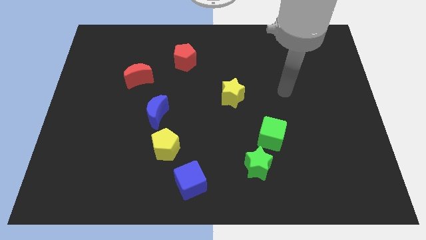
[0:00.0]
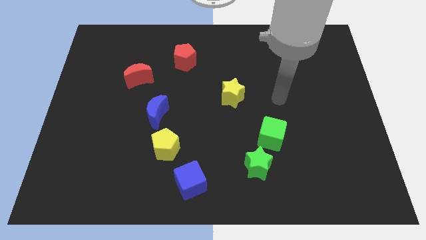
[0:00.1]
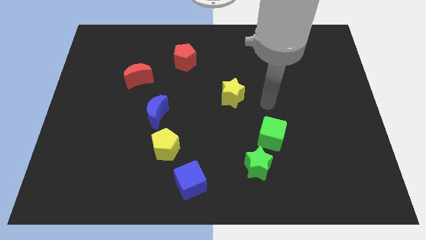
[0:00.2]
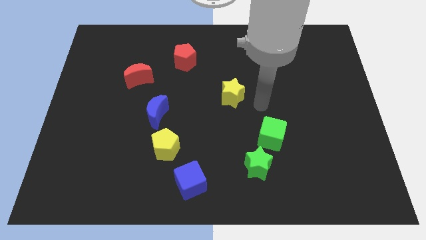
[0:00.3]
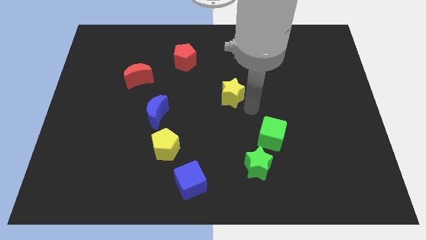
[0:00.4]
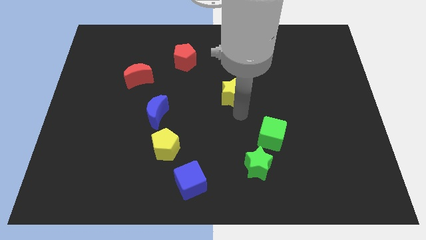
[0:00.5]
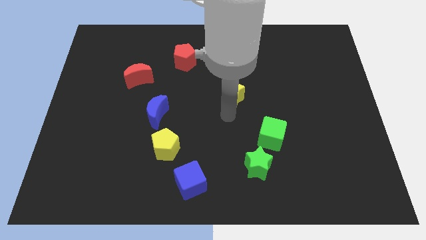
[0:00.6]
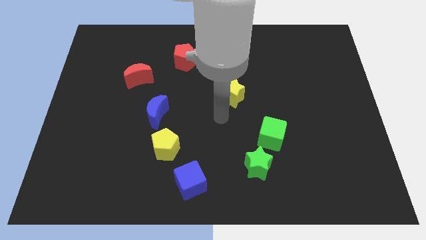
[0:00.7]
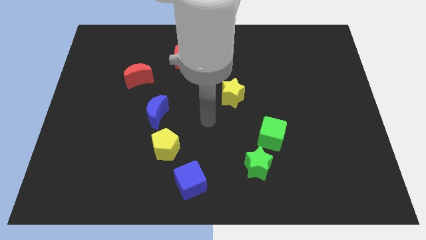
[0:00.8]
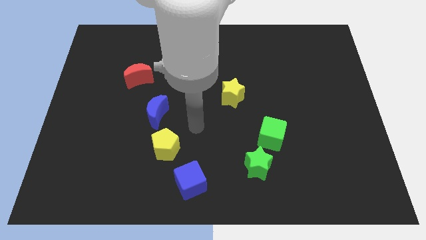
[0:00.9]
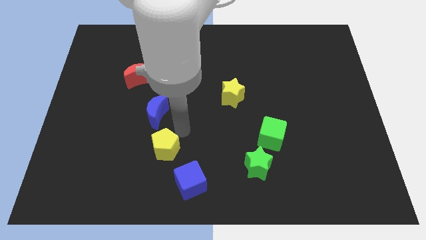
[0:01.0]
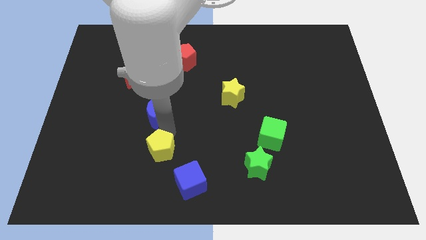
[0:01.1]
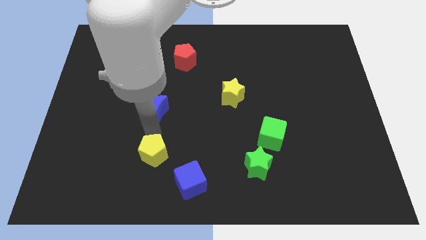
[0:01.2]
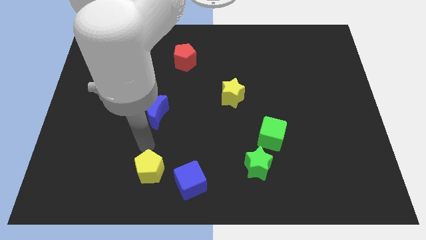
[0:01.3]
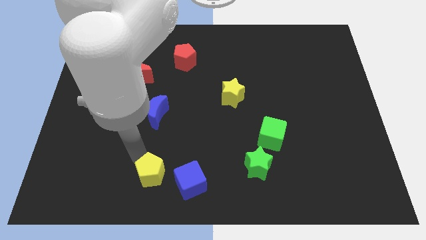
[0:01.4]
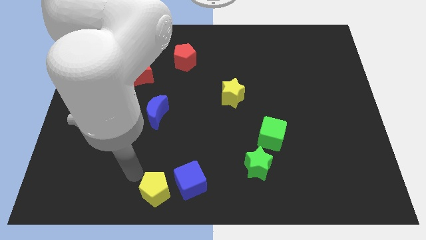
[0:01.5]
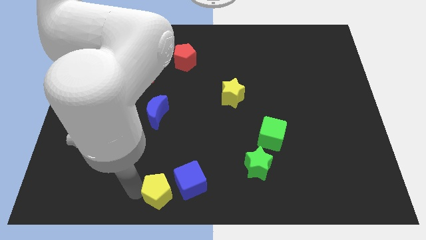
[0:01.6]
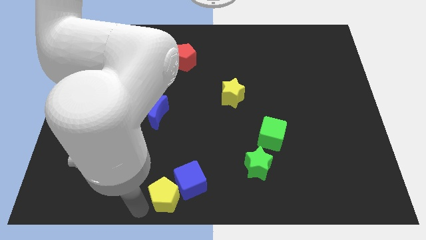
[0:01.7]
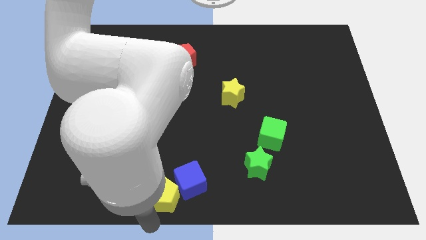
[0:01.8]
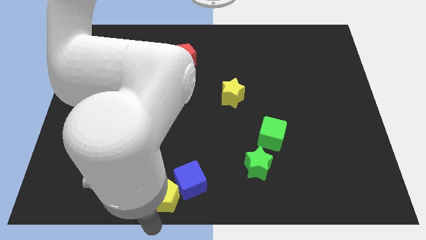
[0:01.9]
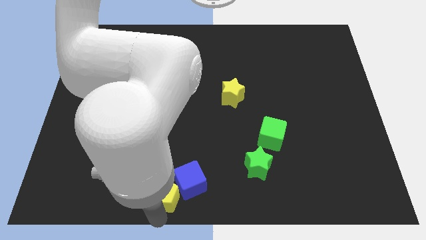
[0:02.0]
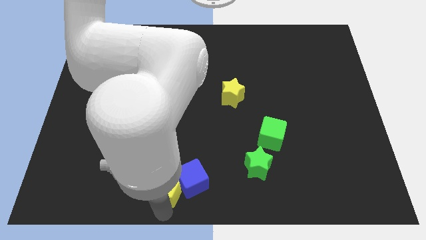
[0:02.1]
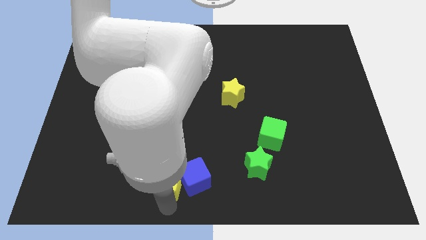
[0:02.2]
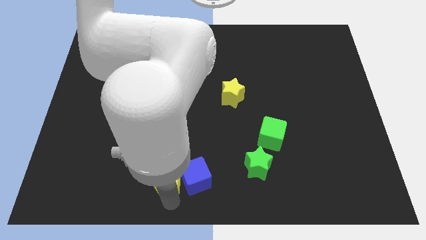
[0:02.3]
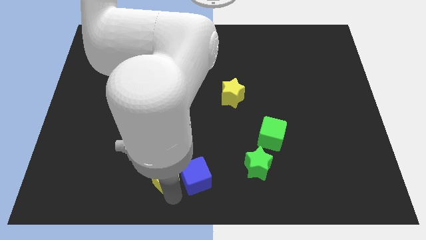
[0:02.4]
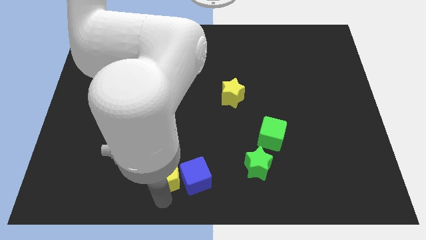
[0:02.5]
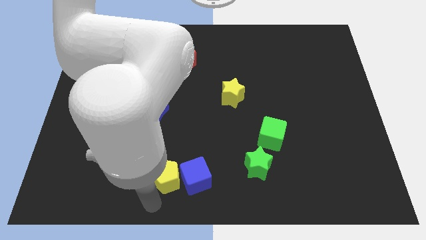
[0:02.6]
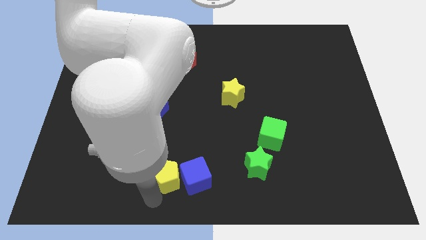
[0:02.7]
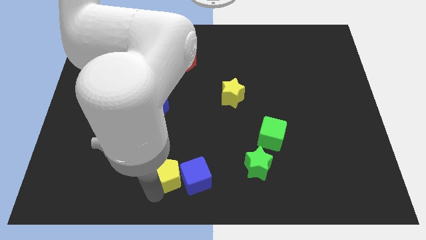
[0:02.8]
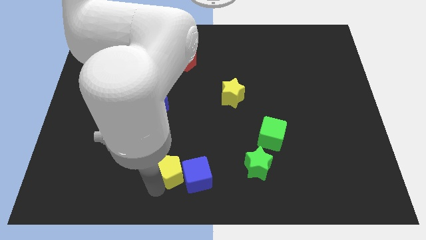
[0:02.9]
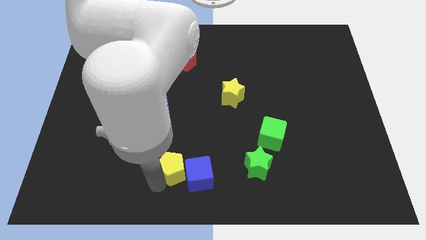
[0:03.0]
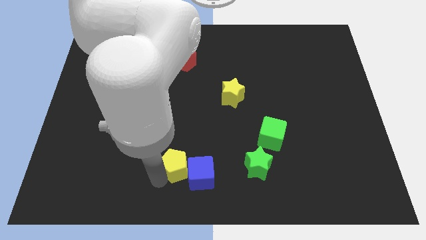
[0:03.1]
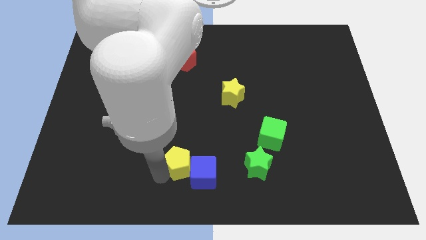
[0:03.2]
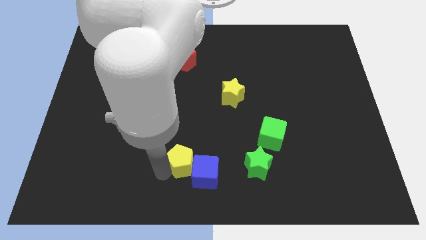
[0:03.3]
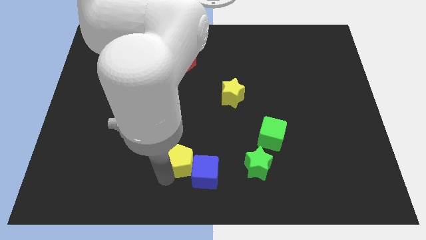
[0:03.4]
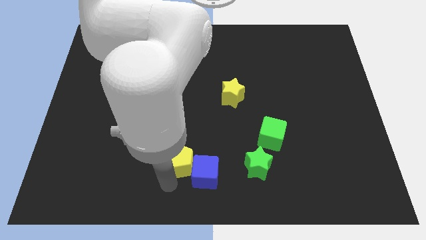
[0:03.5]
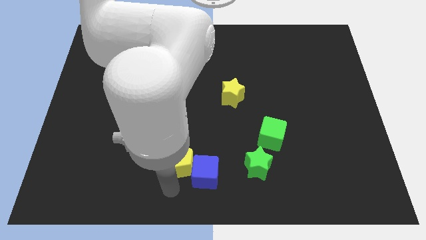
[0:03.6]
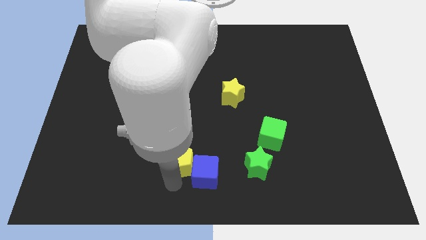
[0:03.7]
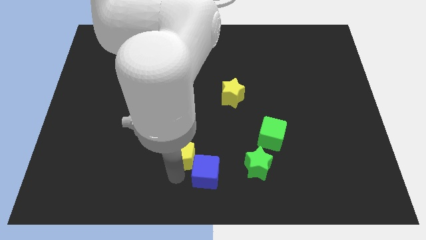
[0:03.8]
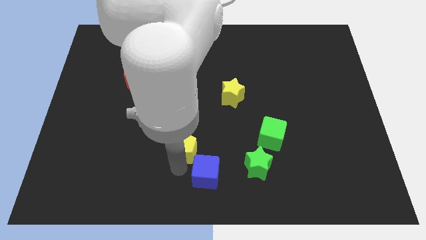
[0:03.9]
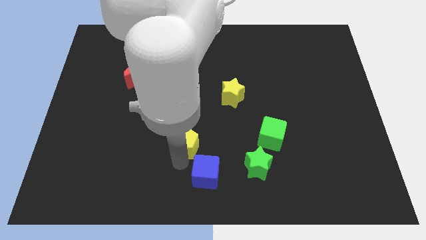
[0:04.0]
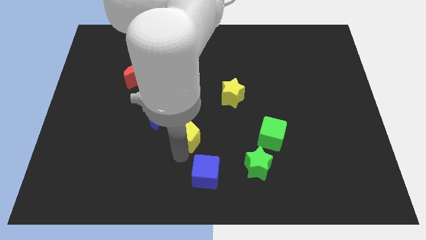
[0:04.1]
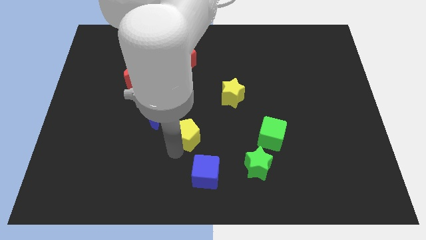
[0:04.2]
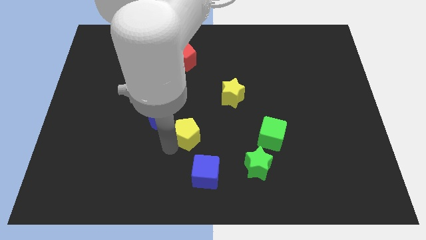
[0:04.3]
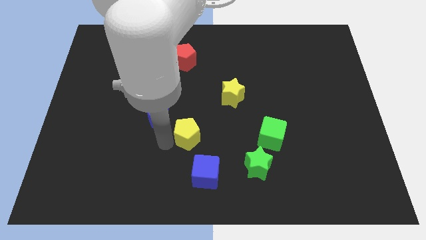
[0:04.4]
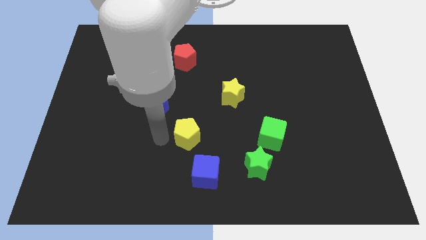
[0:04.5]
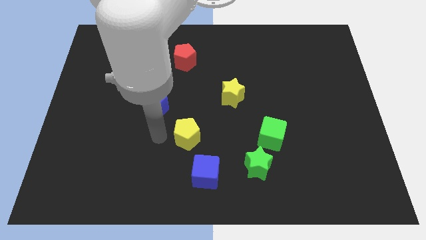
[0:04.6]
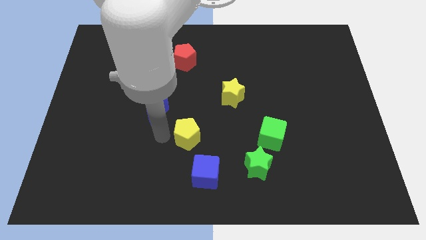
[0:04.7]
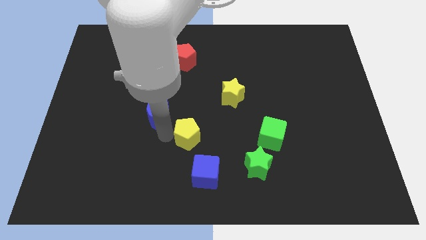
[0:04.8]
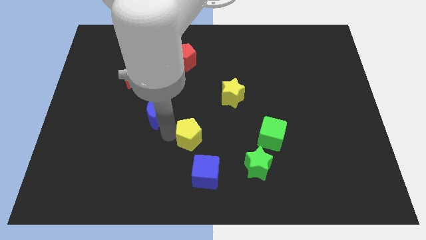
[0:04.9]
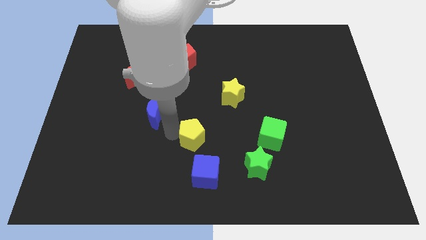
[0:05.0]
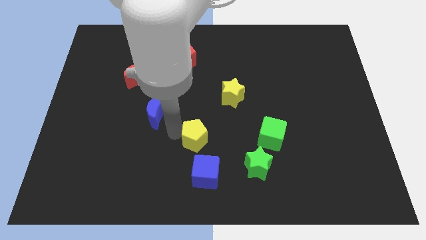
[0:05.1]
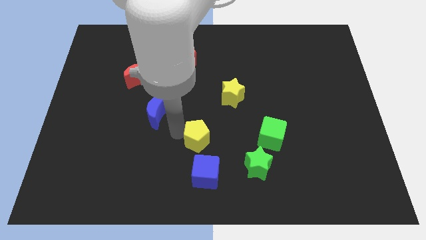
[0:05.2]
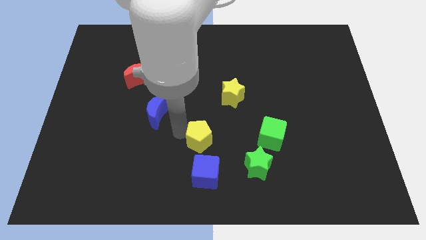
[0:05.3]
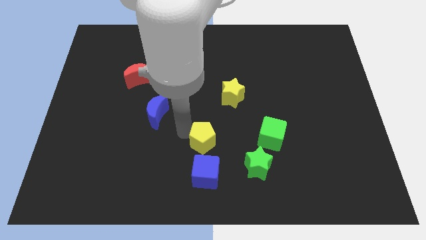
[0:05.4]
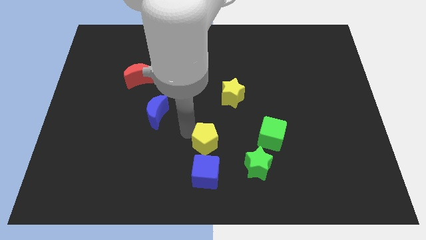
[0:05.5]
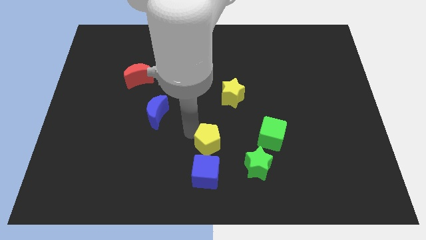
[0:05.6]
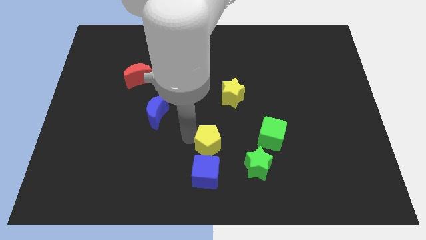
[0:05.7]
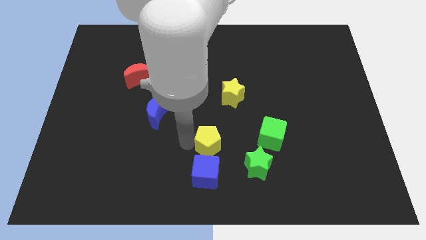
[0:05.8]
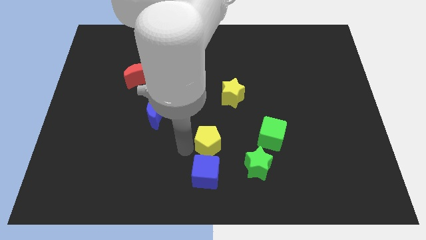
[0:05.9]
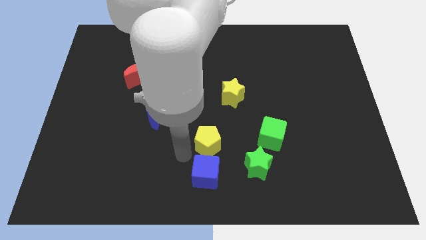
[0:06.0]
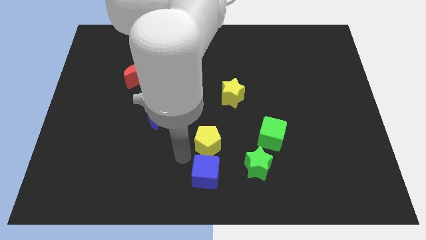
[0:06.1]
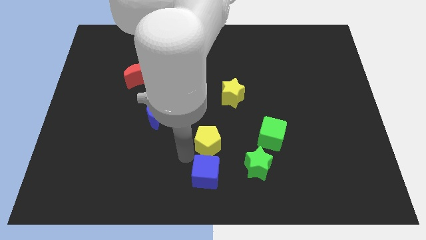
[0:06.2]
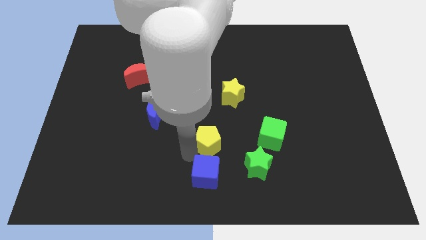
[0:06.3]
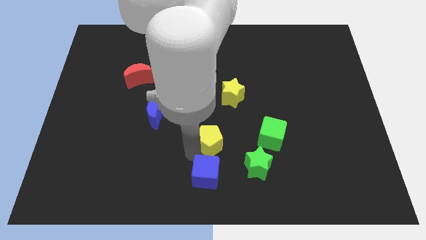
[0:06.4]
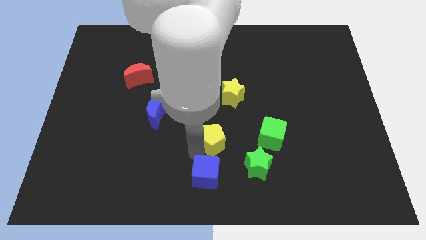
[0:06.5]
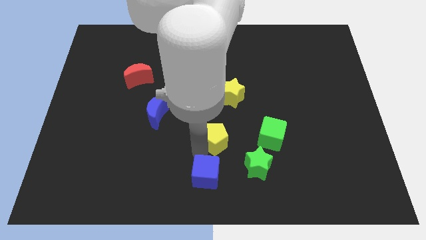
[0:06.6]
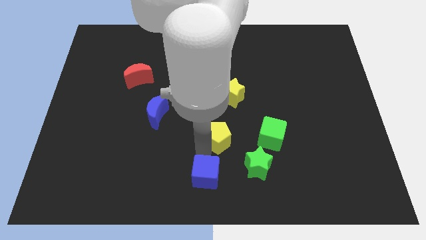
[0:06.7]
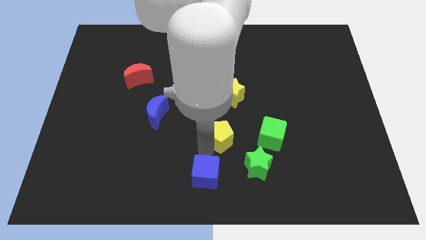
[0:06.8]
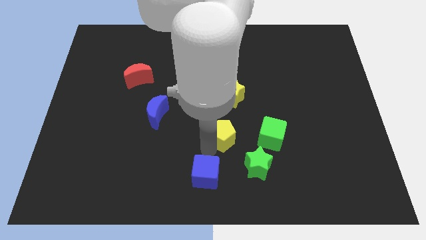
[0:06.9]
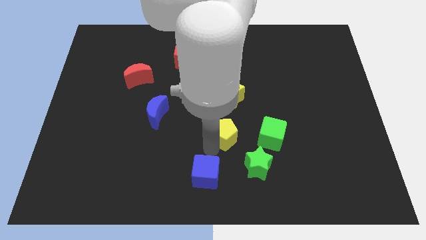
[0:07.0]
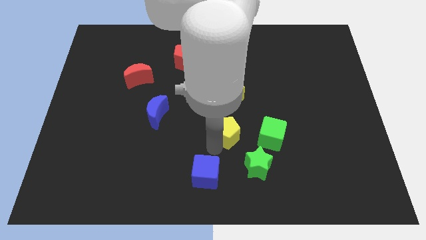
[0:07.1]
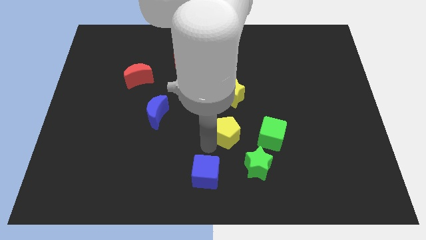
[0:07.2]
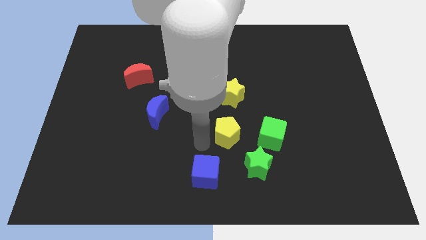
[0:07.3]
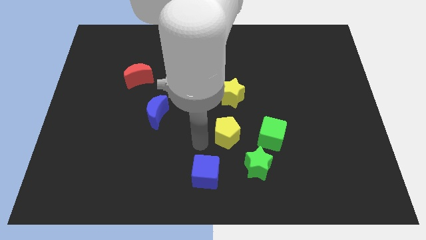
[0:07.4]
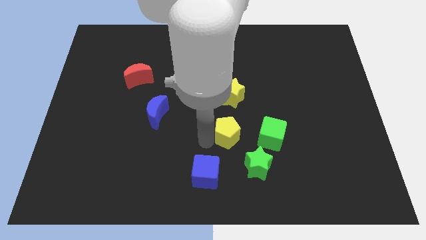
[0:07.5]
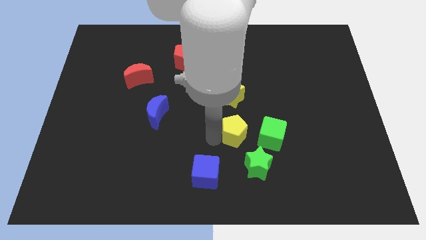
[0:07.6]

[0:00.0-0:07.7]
put the yellow pentagon to the top side of the green star
